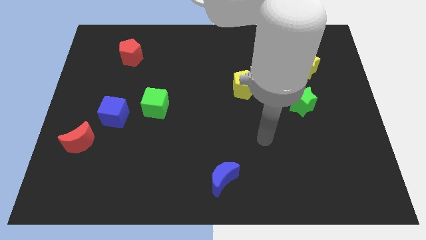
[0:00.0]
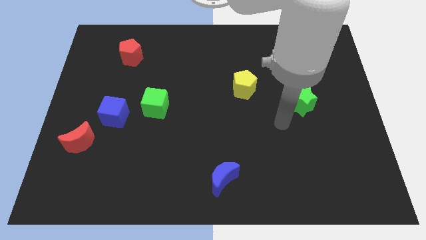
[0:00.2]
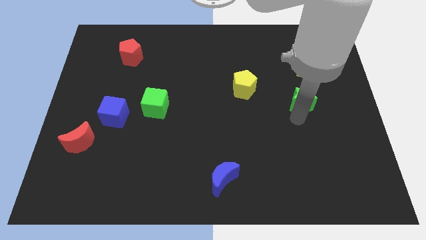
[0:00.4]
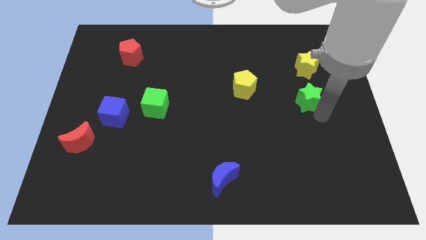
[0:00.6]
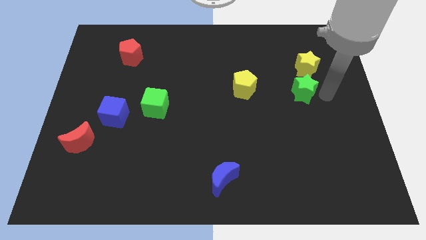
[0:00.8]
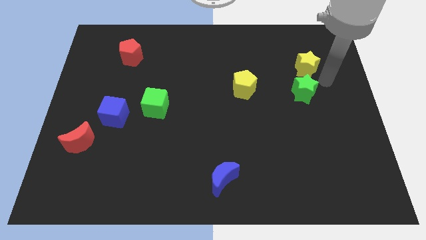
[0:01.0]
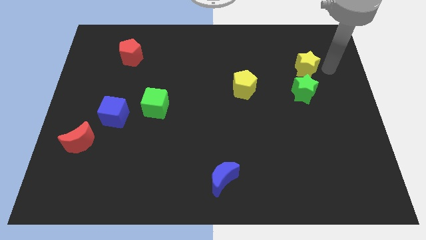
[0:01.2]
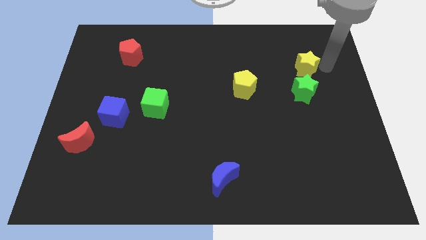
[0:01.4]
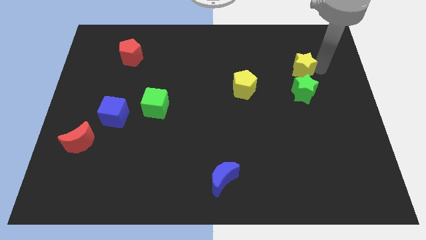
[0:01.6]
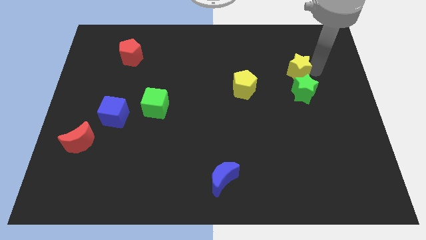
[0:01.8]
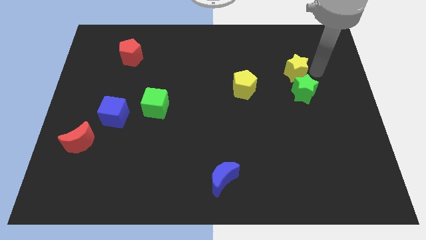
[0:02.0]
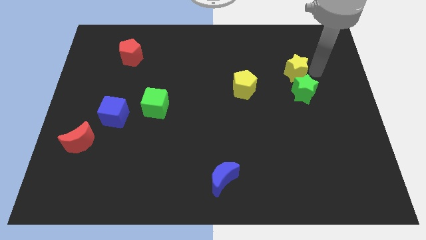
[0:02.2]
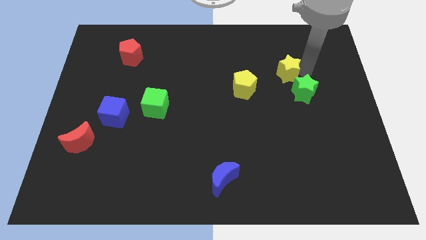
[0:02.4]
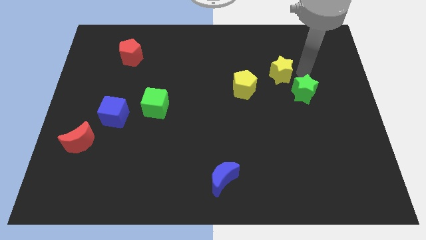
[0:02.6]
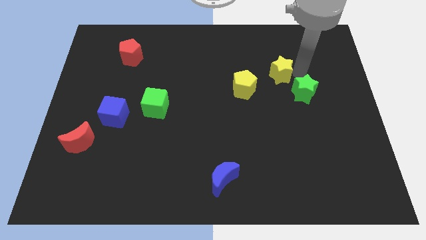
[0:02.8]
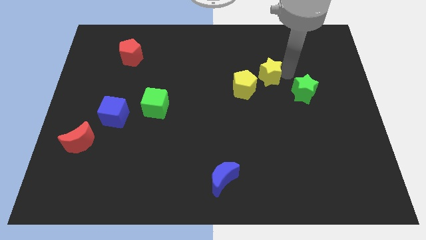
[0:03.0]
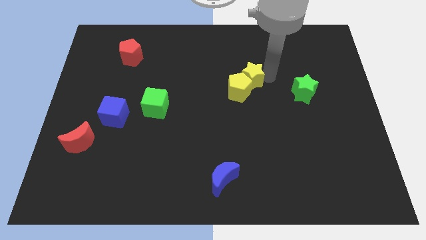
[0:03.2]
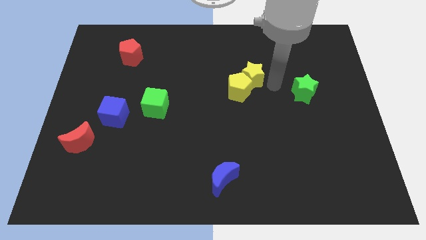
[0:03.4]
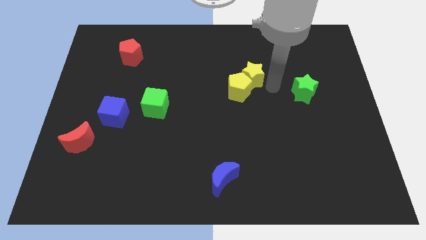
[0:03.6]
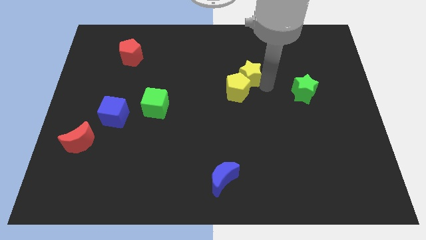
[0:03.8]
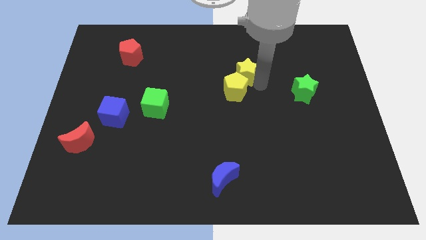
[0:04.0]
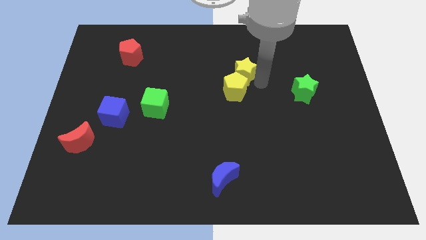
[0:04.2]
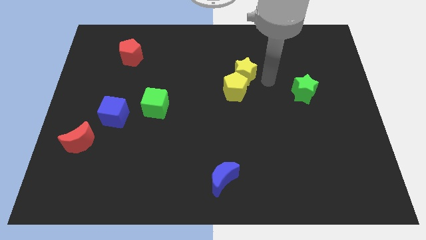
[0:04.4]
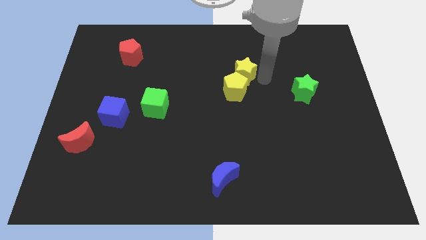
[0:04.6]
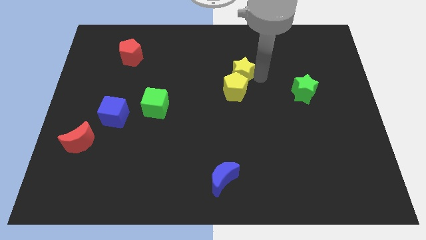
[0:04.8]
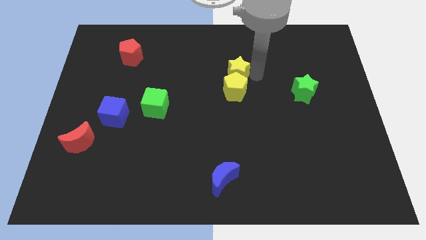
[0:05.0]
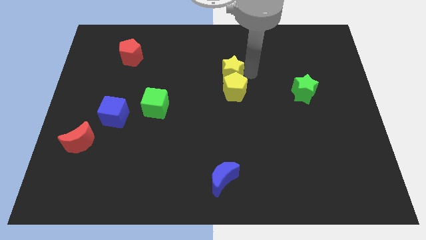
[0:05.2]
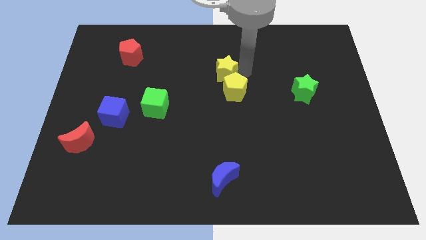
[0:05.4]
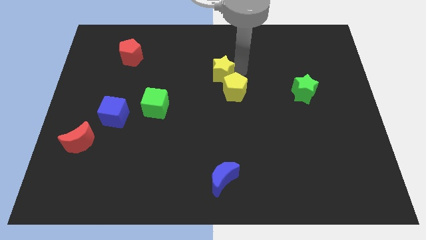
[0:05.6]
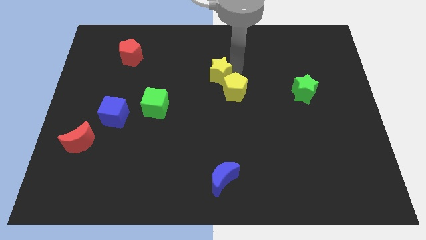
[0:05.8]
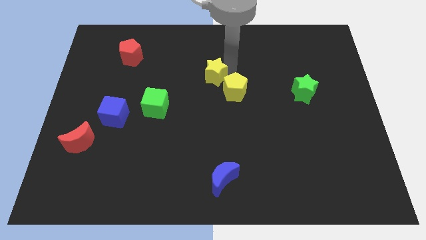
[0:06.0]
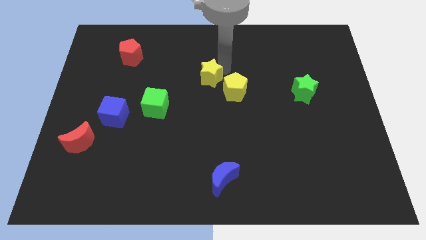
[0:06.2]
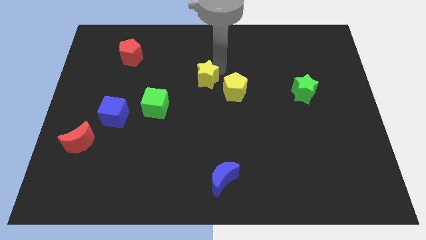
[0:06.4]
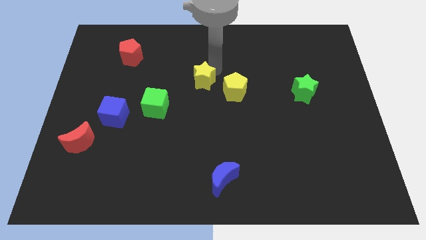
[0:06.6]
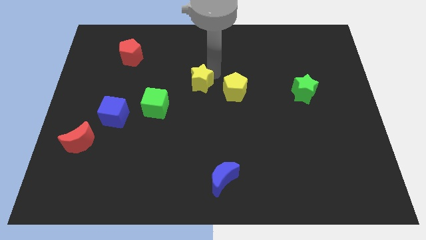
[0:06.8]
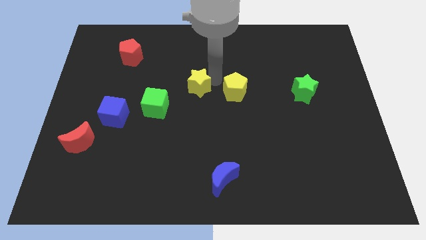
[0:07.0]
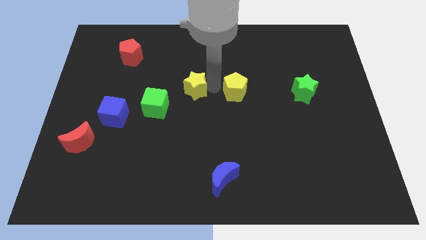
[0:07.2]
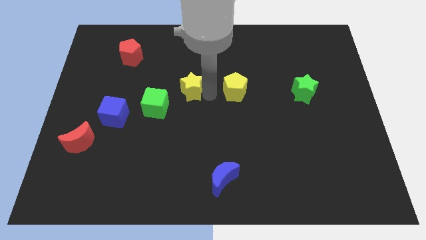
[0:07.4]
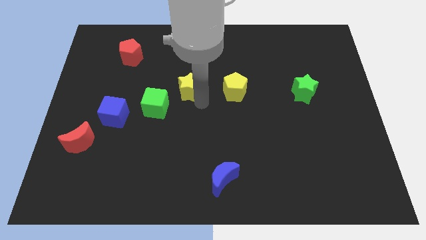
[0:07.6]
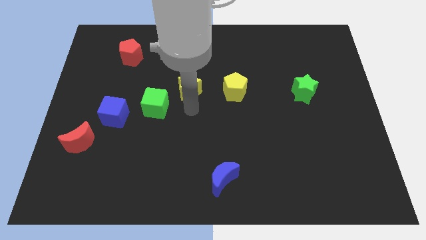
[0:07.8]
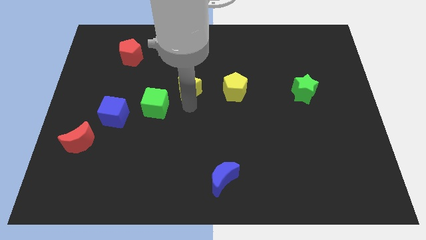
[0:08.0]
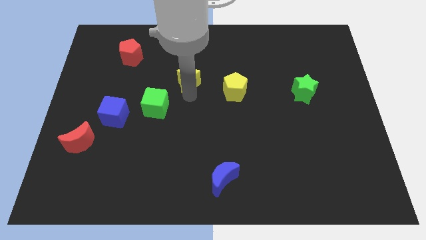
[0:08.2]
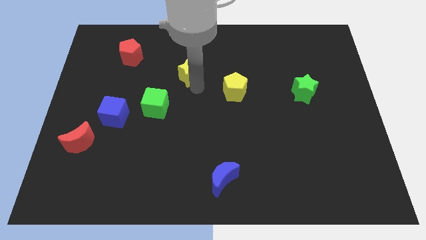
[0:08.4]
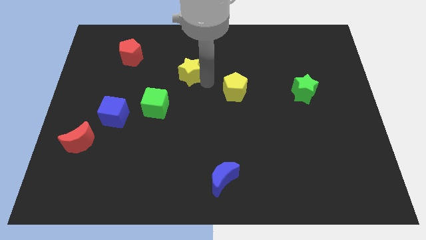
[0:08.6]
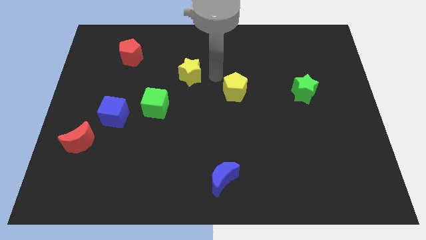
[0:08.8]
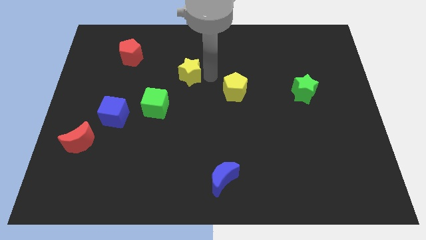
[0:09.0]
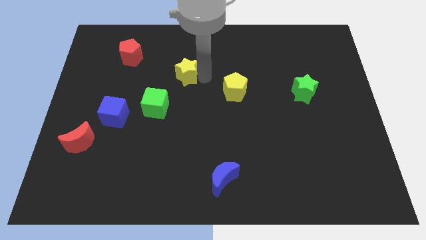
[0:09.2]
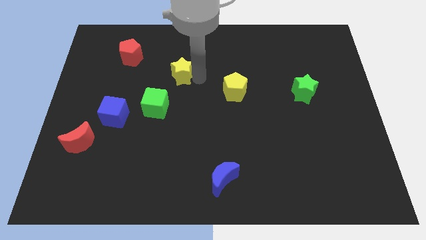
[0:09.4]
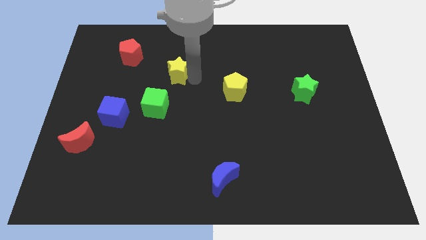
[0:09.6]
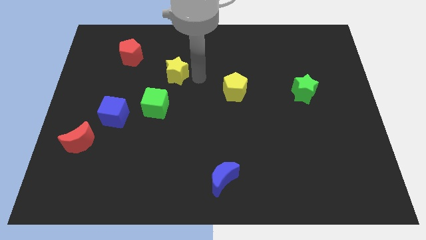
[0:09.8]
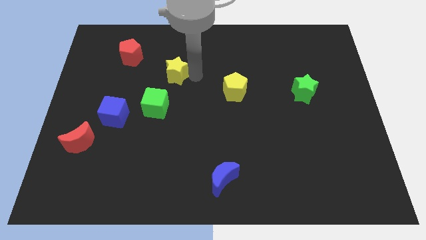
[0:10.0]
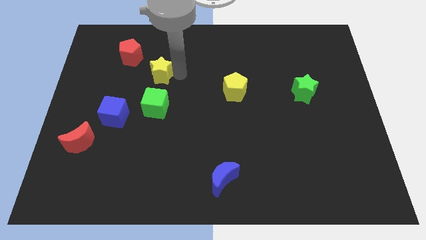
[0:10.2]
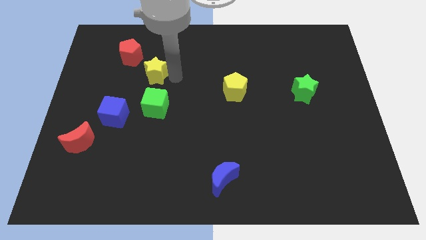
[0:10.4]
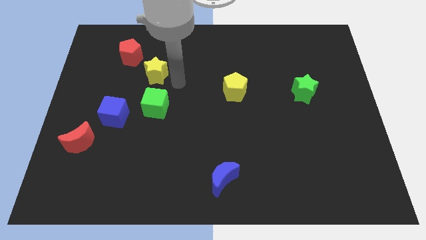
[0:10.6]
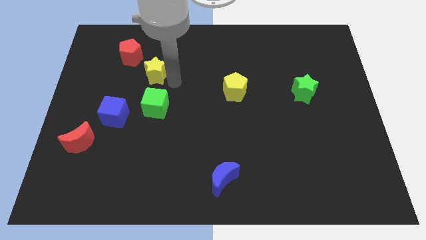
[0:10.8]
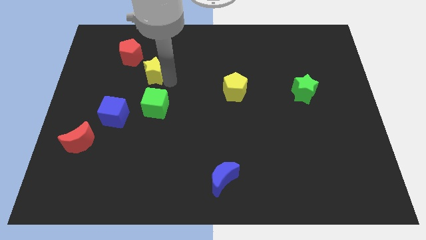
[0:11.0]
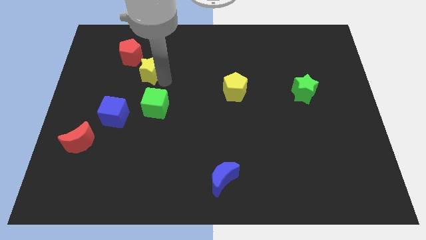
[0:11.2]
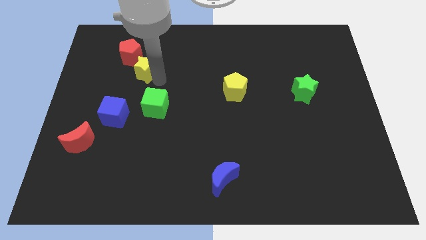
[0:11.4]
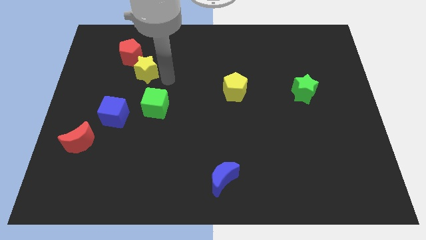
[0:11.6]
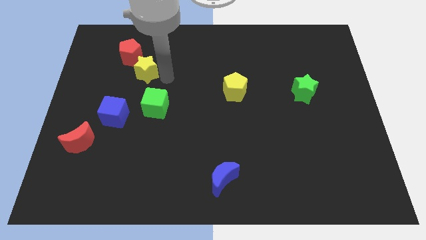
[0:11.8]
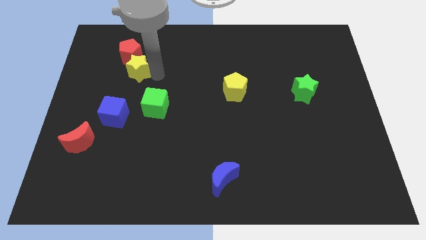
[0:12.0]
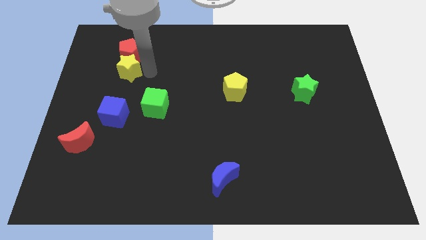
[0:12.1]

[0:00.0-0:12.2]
slide the yellow star to the bottom left side of the red pentagon

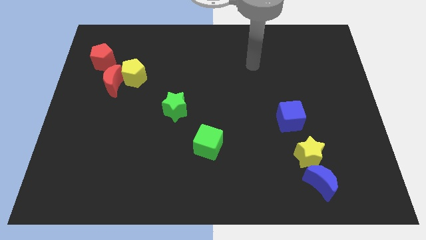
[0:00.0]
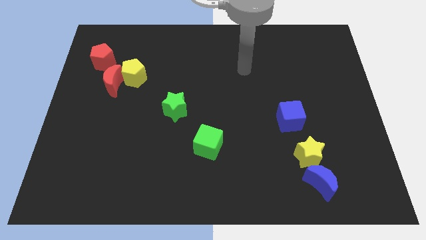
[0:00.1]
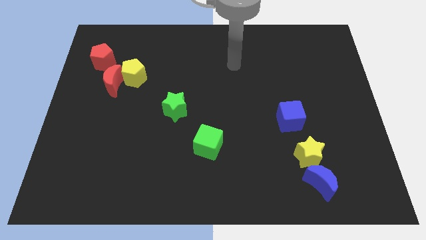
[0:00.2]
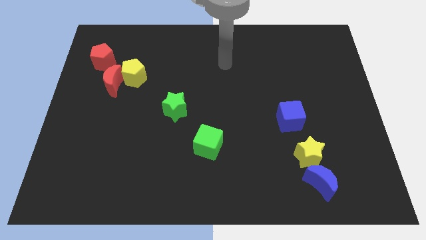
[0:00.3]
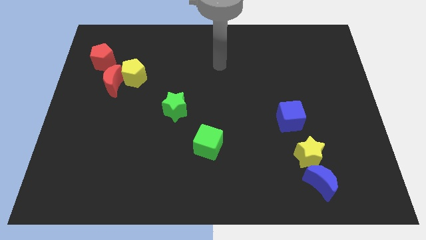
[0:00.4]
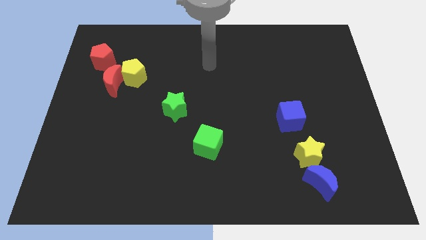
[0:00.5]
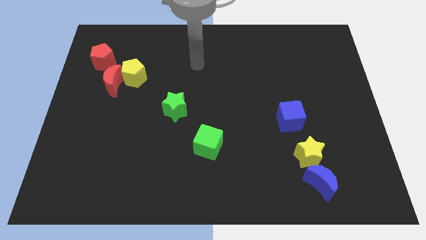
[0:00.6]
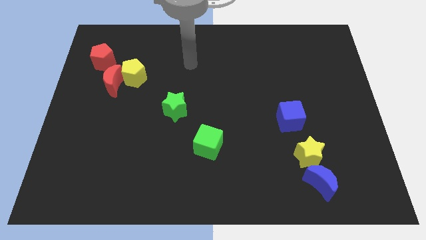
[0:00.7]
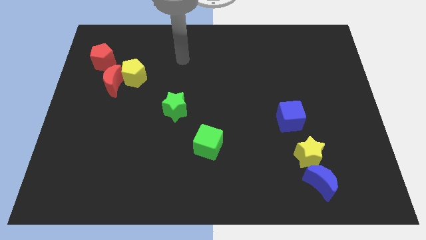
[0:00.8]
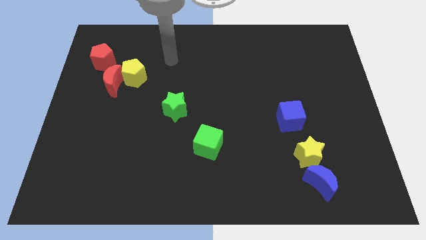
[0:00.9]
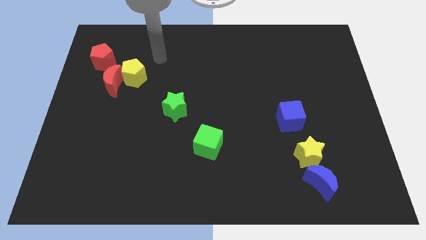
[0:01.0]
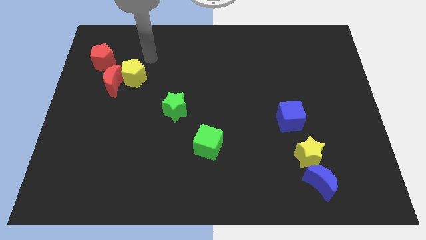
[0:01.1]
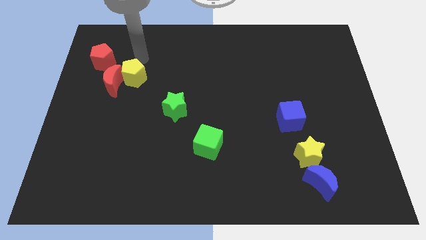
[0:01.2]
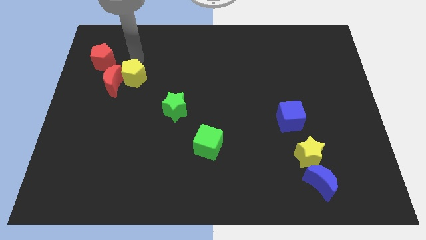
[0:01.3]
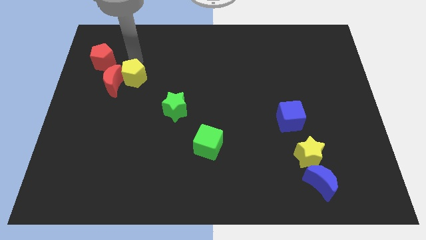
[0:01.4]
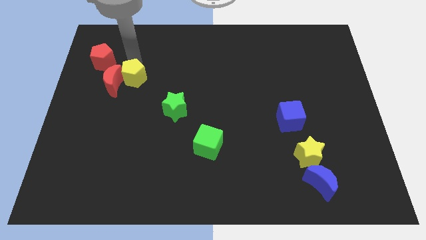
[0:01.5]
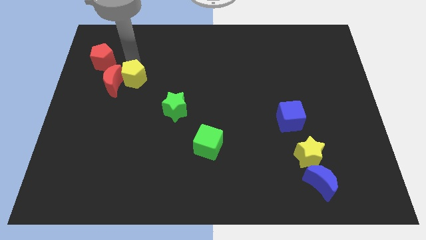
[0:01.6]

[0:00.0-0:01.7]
push the yellow pentagon diagonally down and to the right of the red moon
